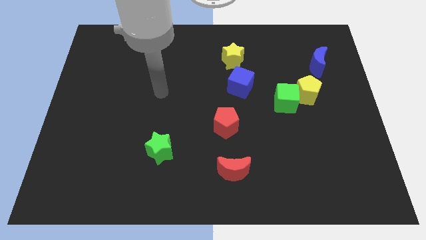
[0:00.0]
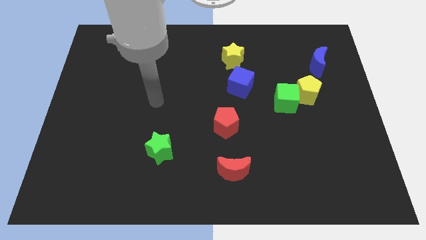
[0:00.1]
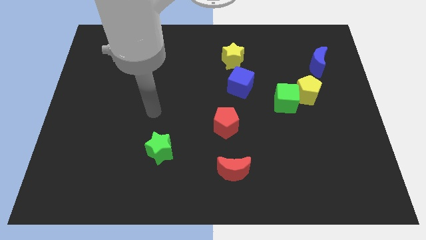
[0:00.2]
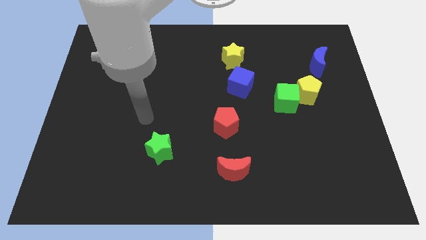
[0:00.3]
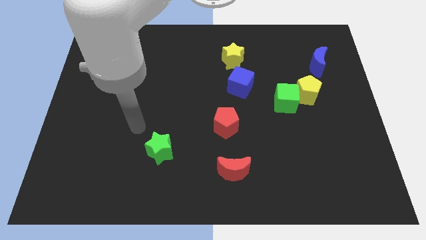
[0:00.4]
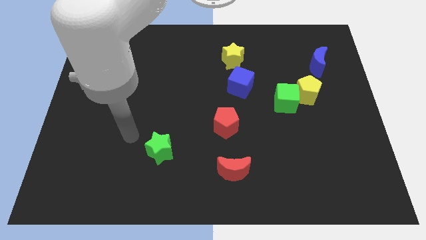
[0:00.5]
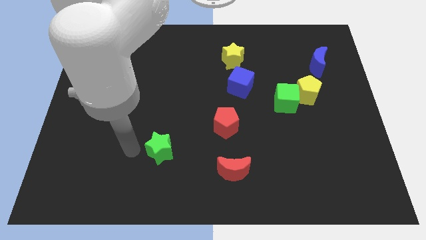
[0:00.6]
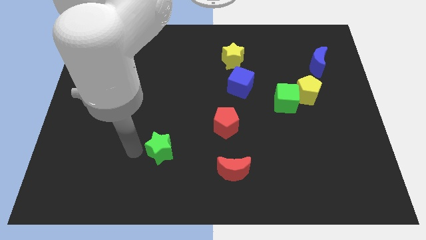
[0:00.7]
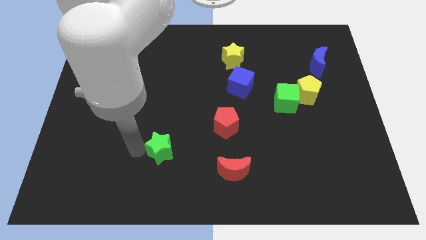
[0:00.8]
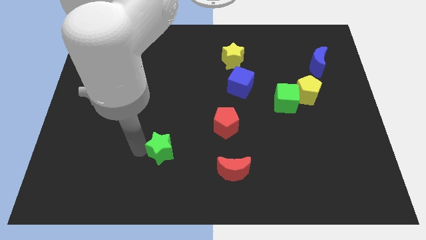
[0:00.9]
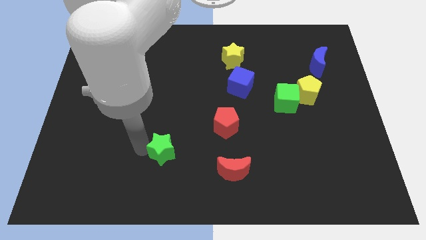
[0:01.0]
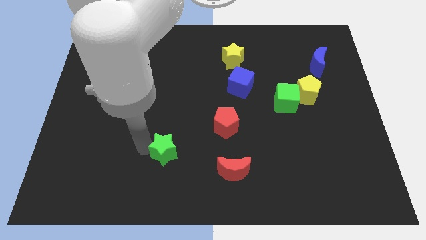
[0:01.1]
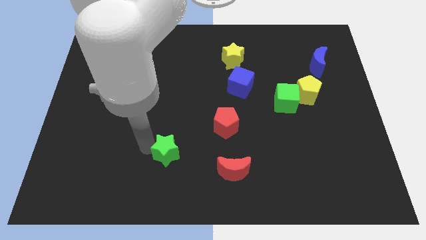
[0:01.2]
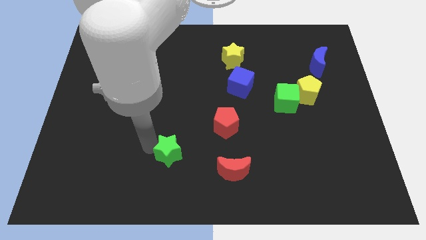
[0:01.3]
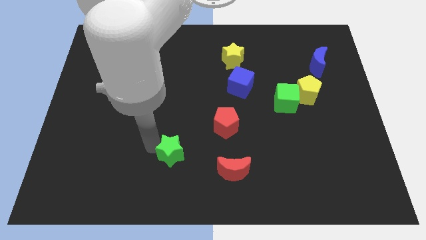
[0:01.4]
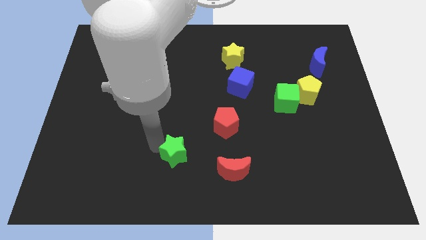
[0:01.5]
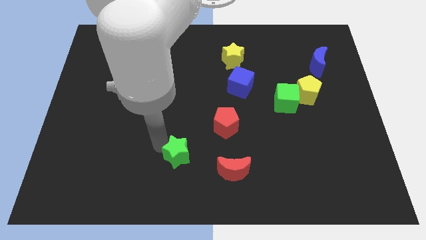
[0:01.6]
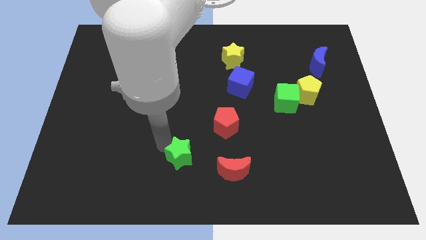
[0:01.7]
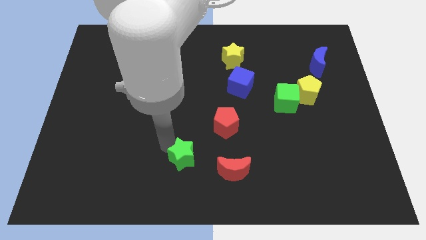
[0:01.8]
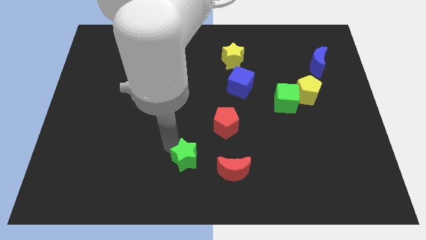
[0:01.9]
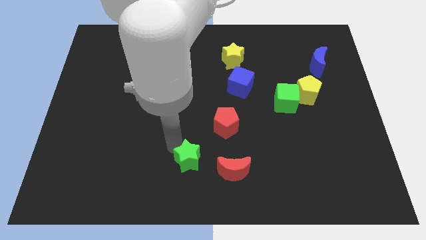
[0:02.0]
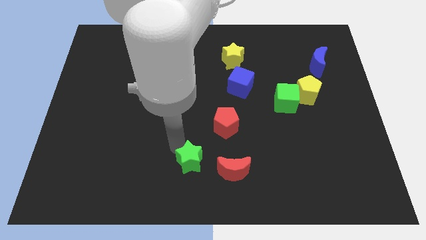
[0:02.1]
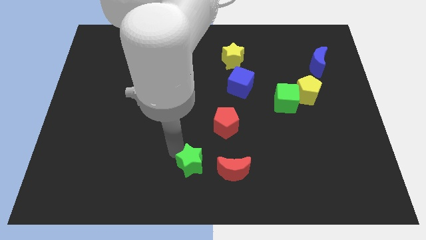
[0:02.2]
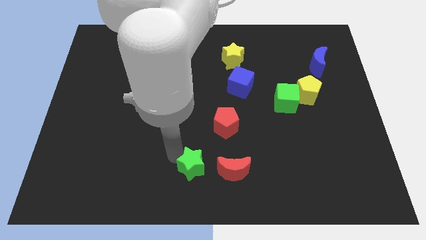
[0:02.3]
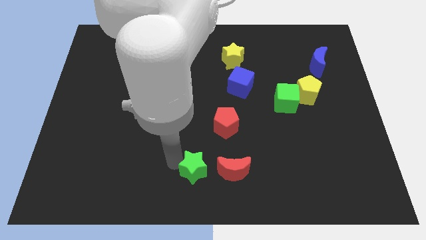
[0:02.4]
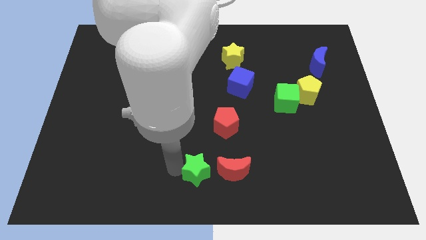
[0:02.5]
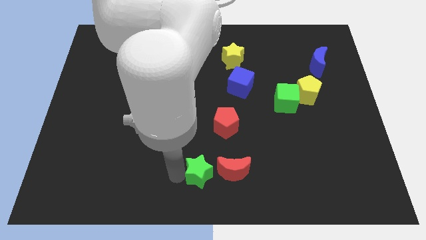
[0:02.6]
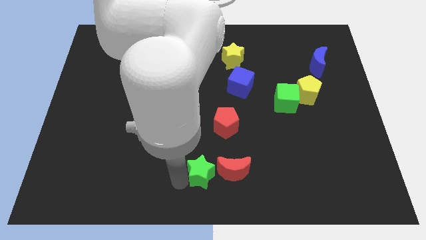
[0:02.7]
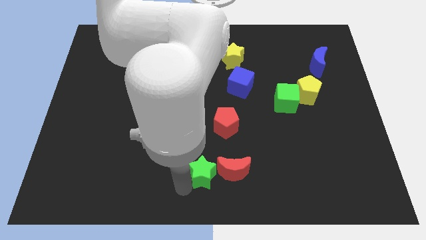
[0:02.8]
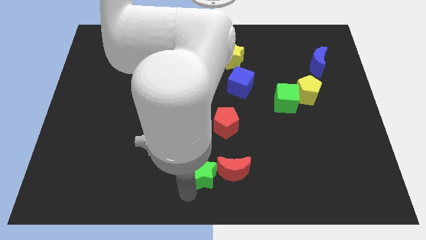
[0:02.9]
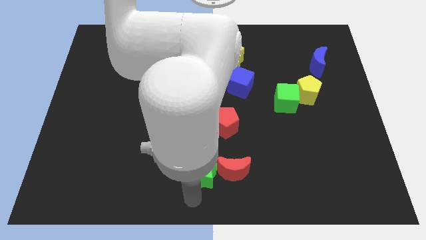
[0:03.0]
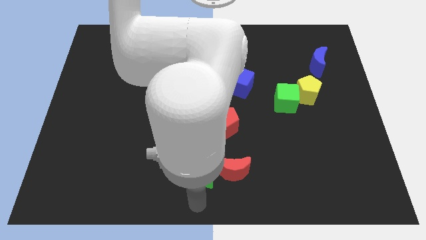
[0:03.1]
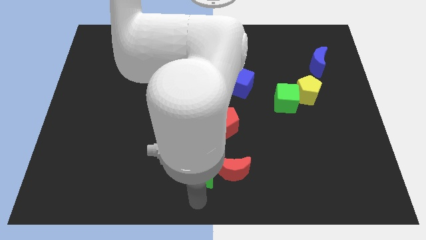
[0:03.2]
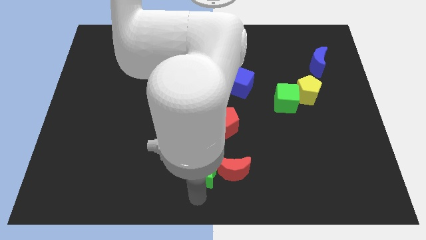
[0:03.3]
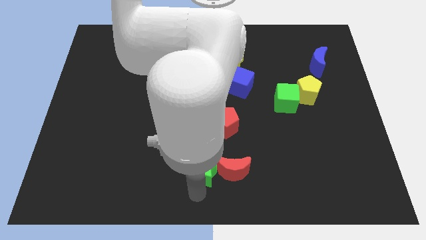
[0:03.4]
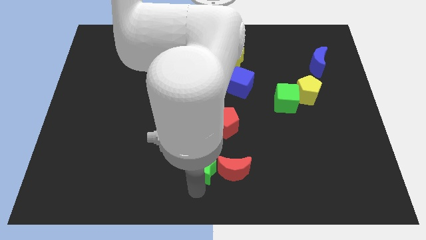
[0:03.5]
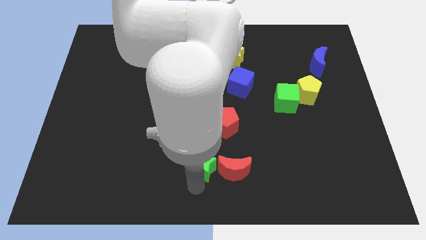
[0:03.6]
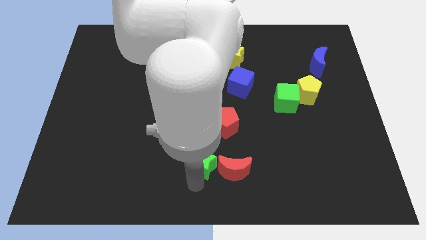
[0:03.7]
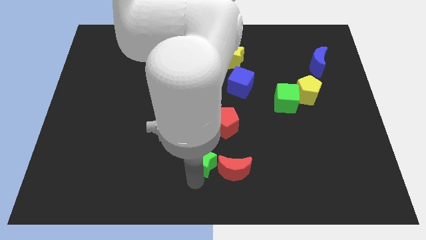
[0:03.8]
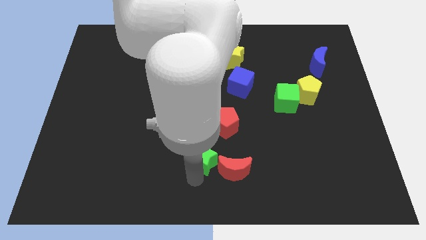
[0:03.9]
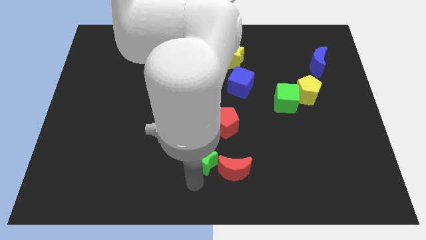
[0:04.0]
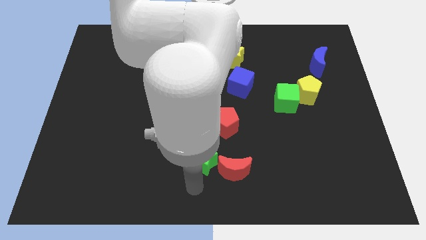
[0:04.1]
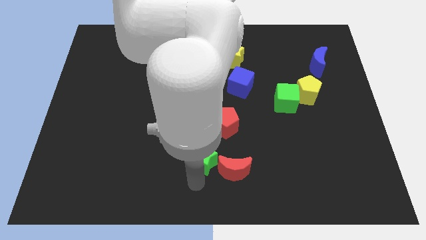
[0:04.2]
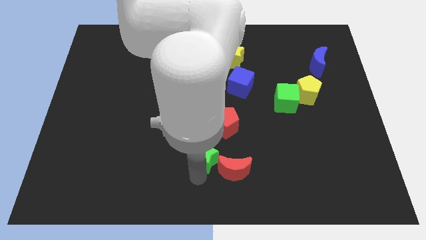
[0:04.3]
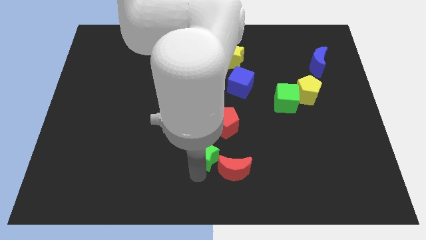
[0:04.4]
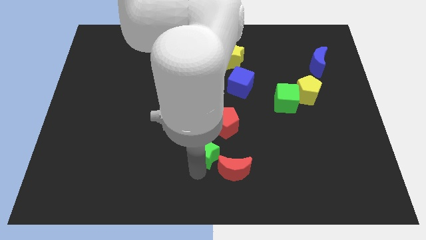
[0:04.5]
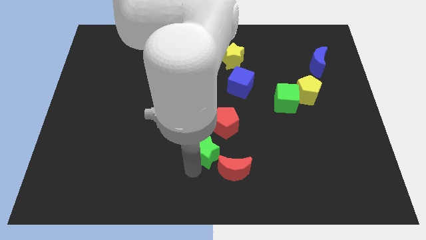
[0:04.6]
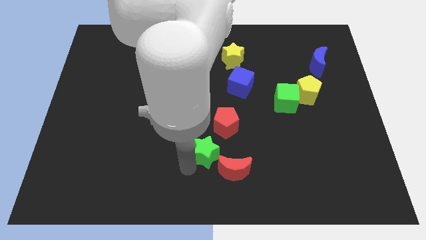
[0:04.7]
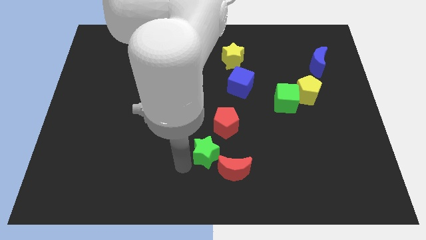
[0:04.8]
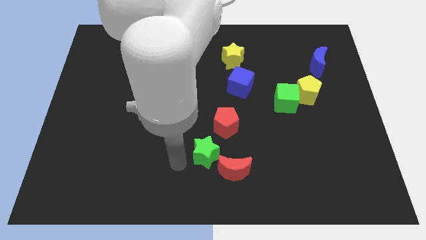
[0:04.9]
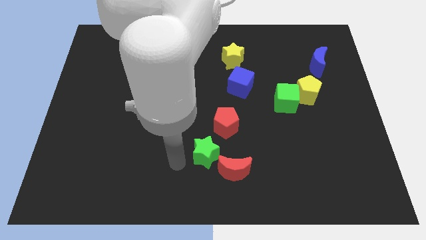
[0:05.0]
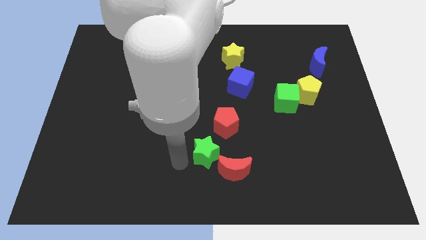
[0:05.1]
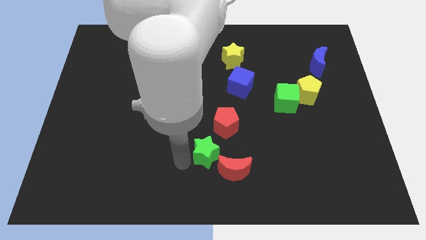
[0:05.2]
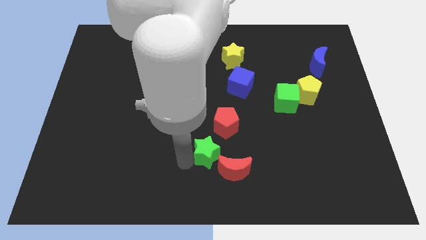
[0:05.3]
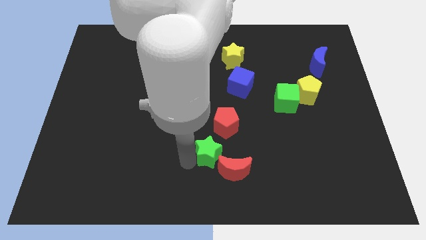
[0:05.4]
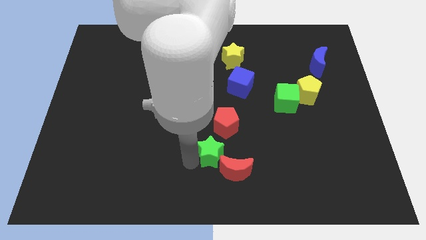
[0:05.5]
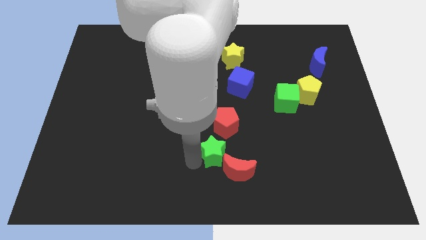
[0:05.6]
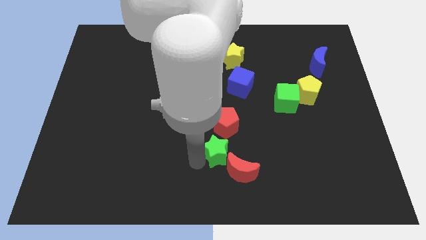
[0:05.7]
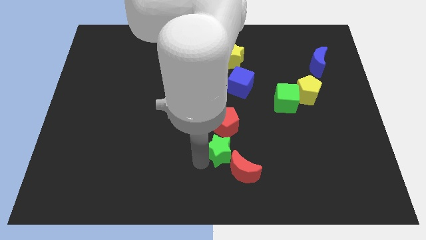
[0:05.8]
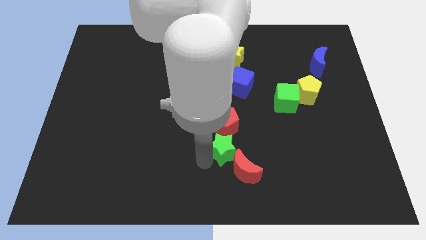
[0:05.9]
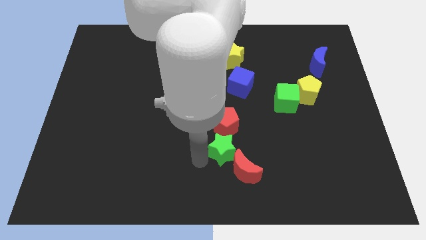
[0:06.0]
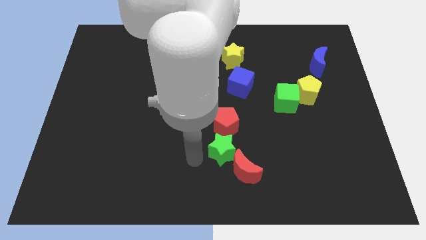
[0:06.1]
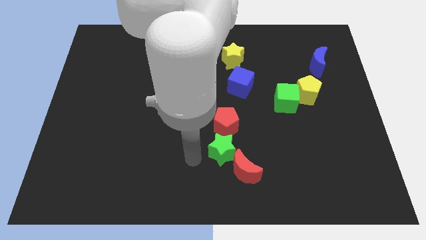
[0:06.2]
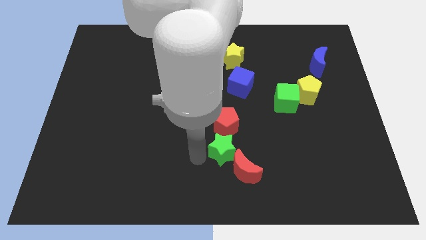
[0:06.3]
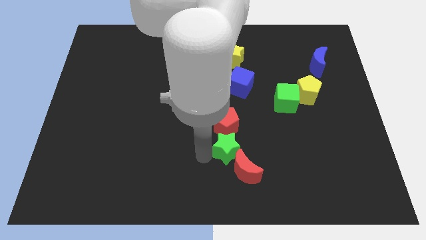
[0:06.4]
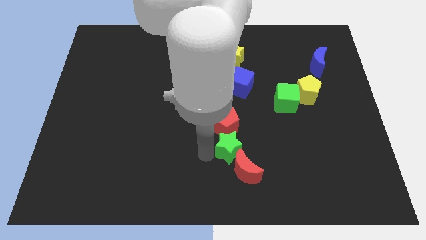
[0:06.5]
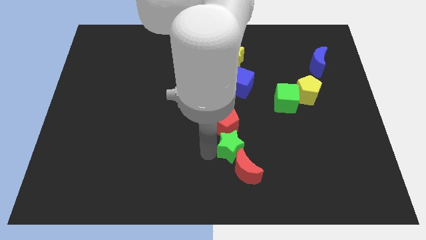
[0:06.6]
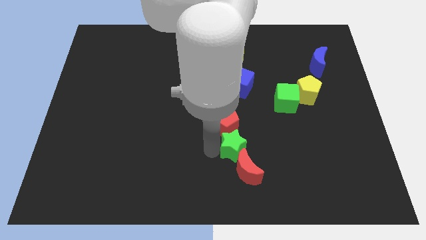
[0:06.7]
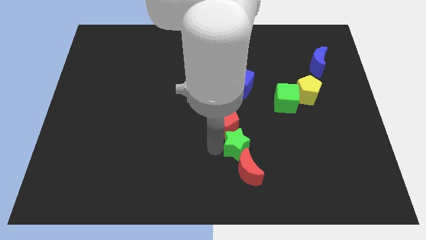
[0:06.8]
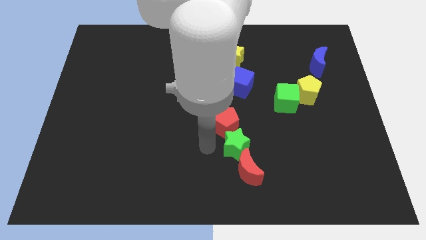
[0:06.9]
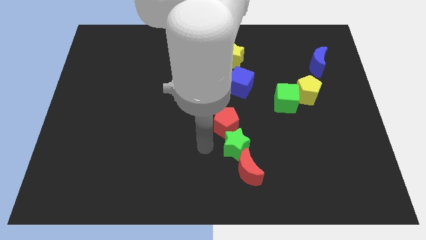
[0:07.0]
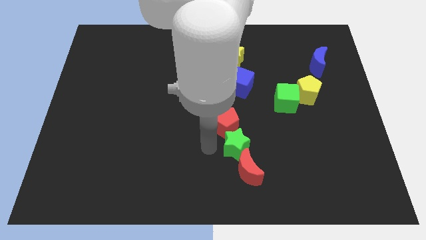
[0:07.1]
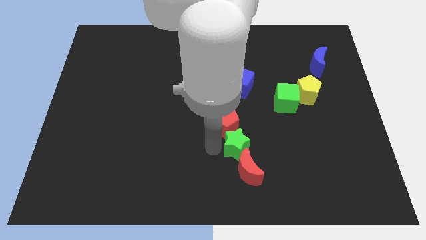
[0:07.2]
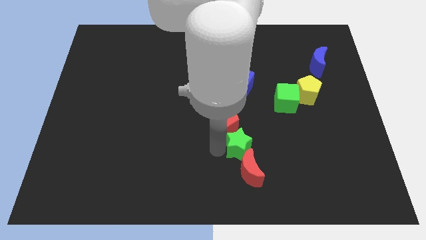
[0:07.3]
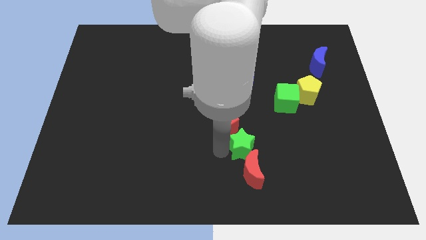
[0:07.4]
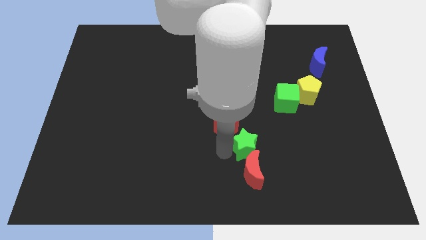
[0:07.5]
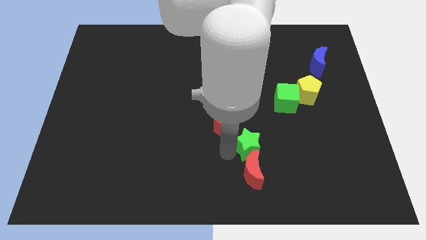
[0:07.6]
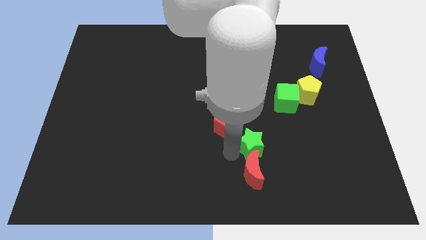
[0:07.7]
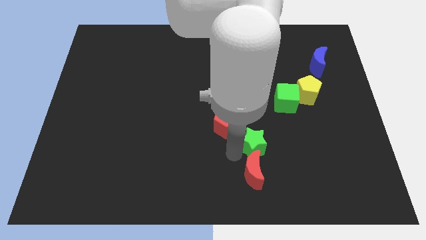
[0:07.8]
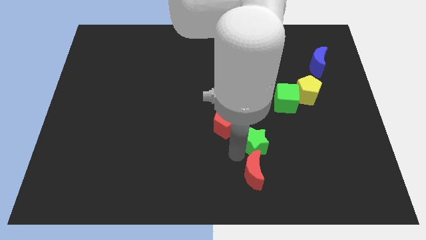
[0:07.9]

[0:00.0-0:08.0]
move the green star to the right
